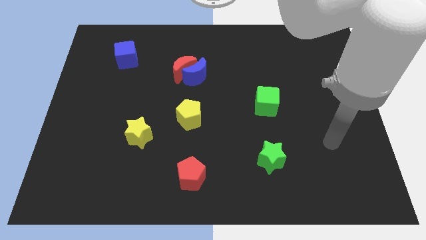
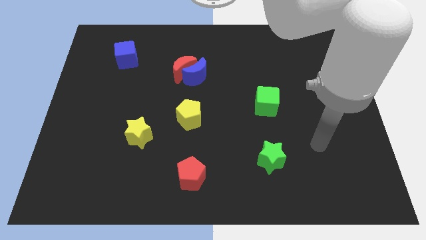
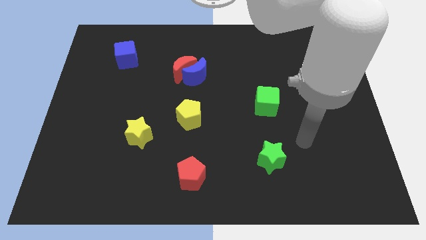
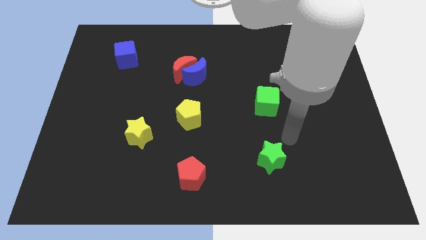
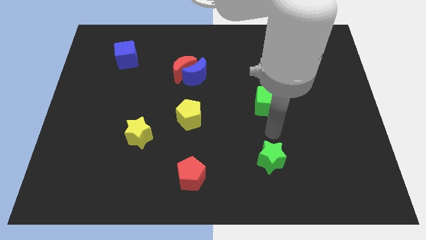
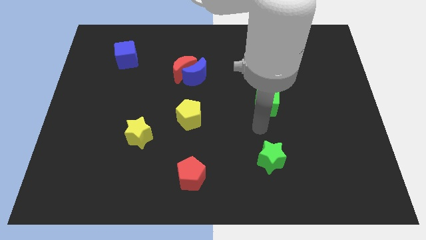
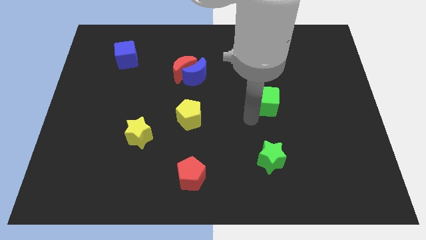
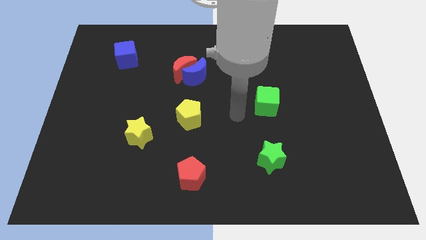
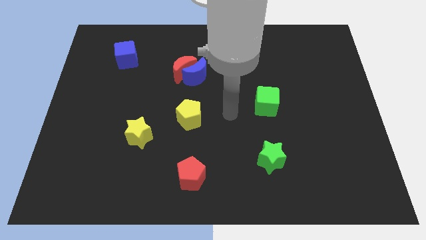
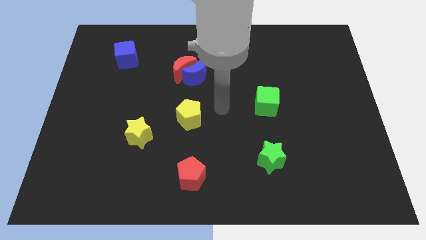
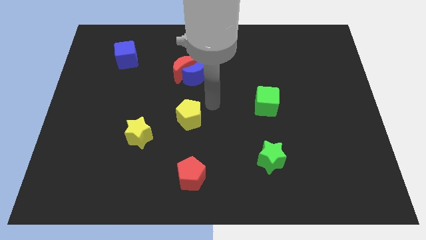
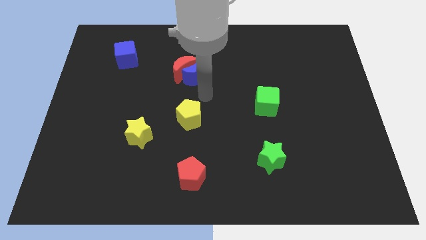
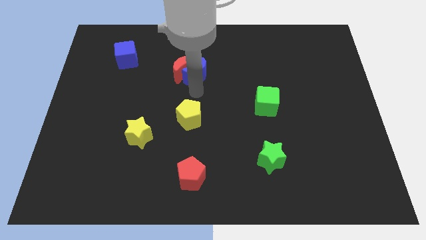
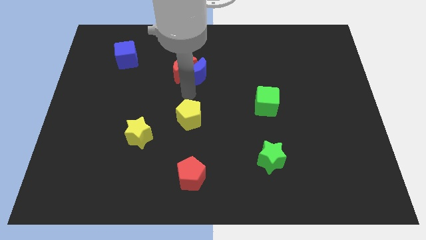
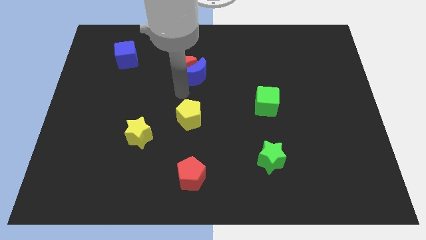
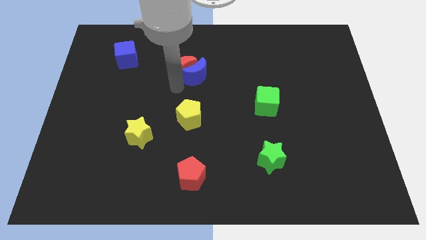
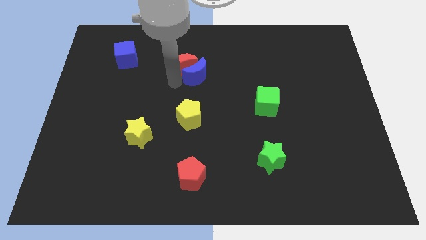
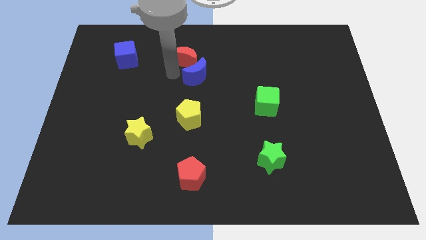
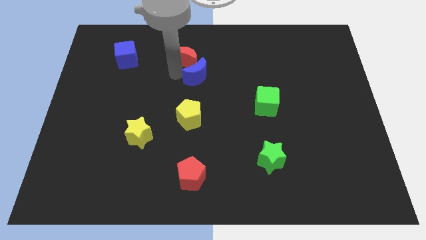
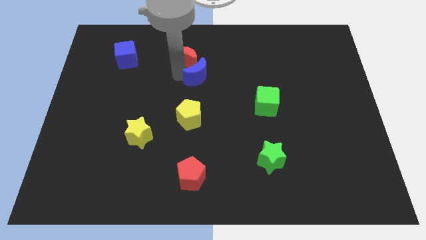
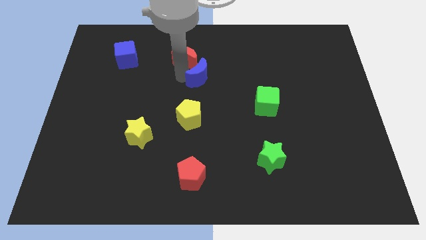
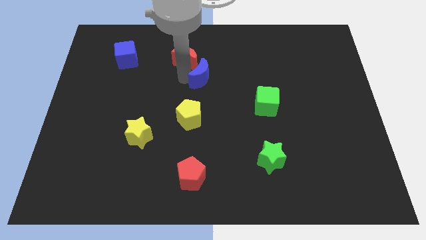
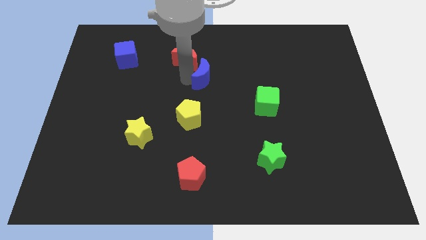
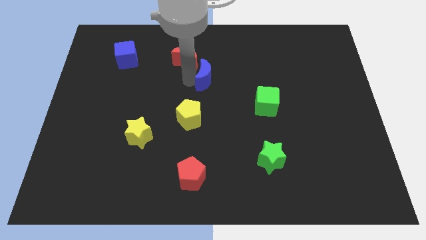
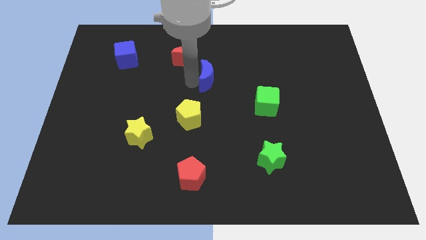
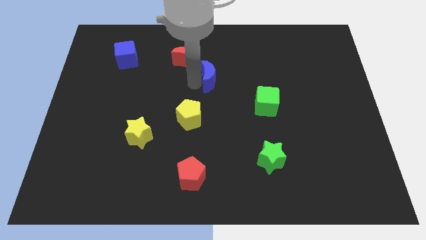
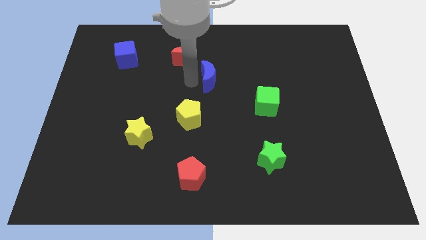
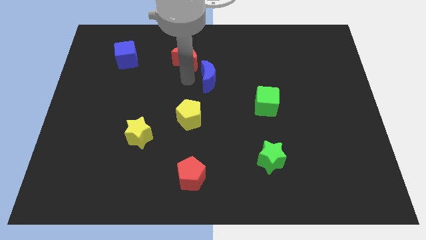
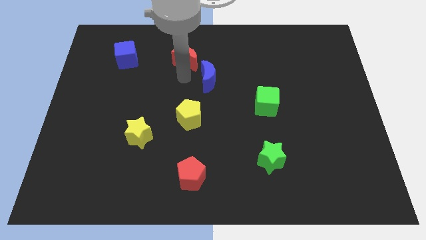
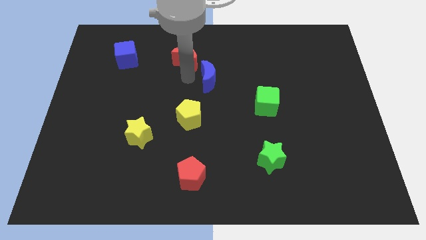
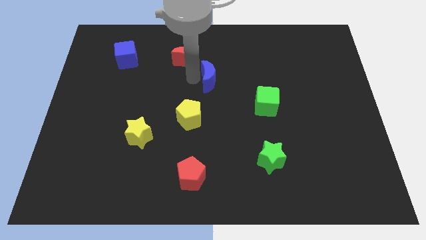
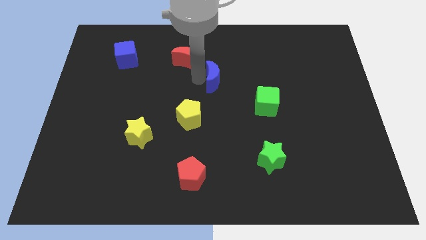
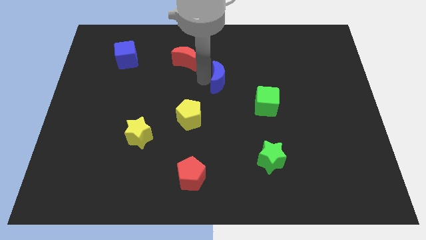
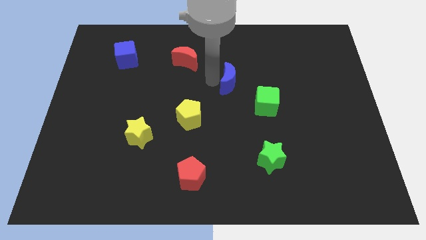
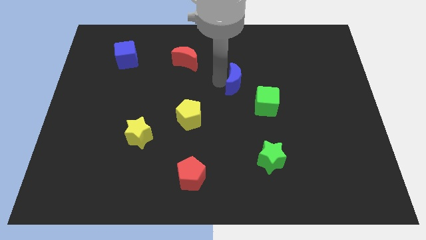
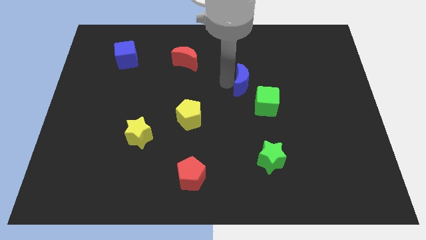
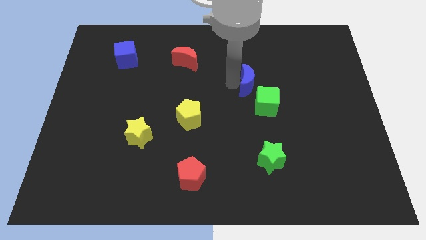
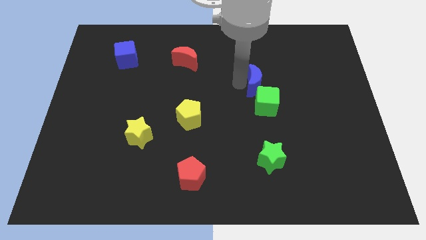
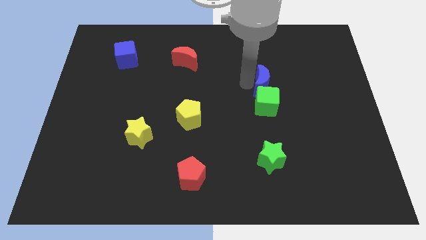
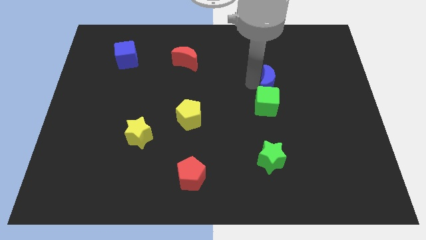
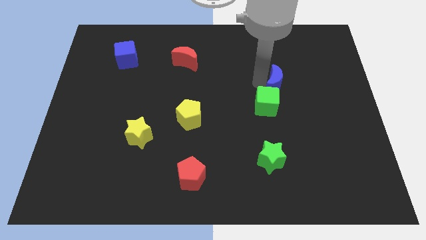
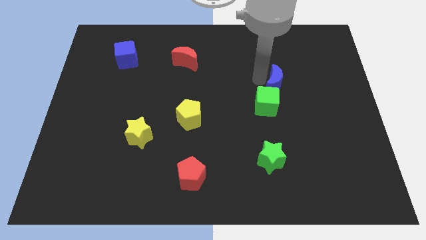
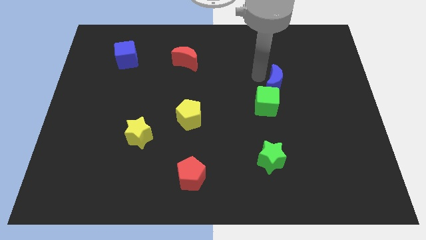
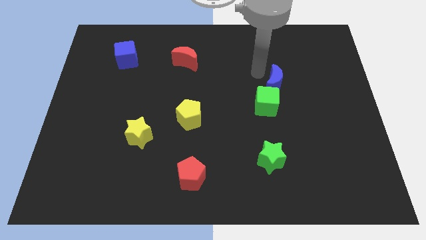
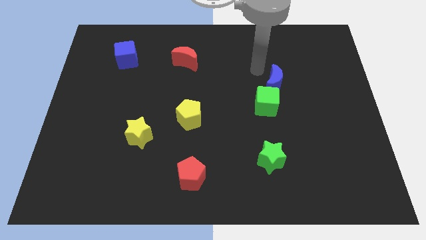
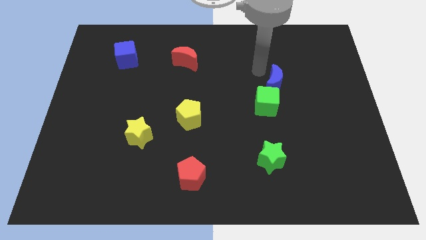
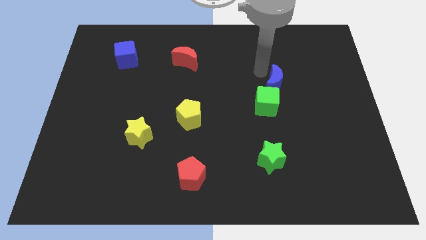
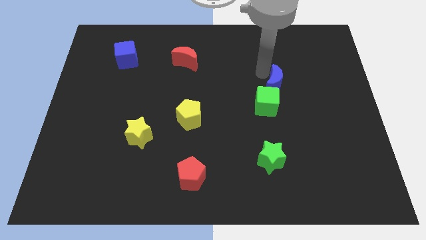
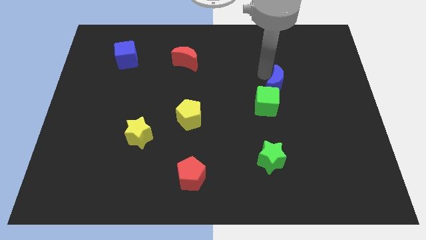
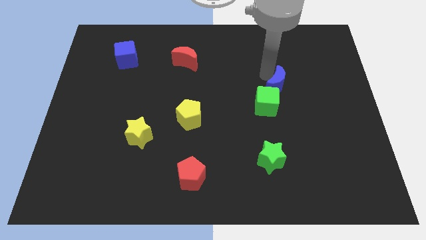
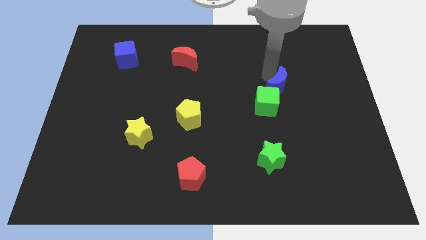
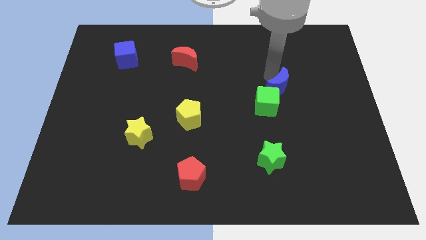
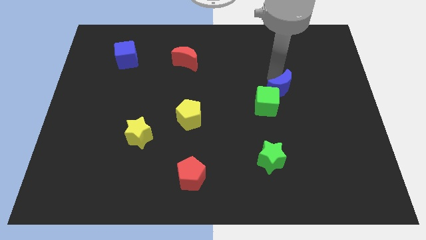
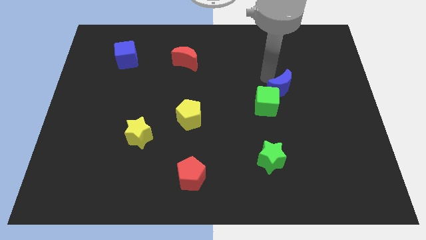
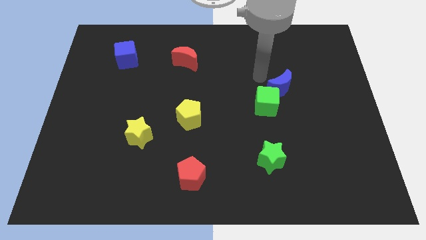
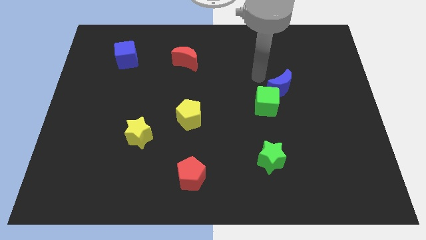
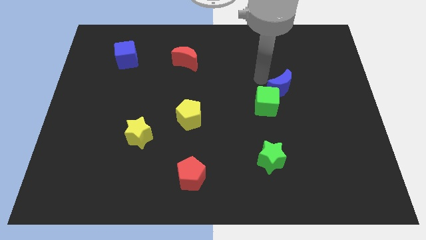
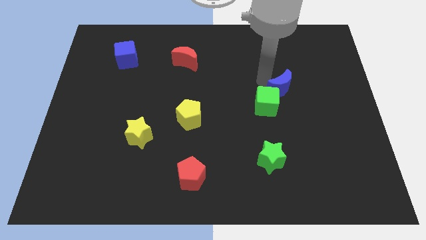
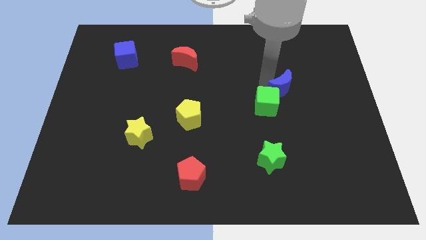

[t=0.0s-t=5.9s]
move the blue moon just right of the green cube
